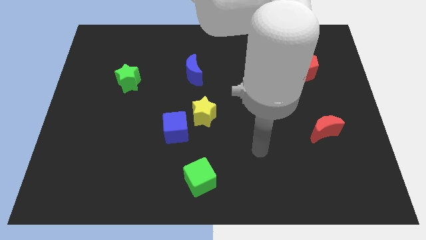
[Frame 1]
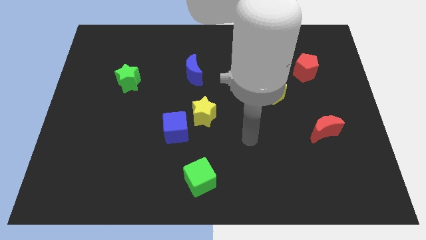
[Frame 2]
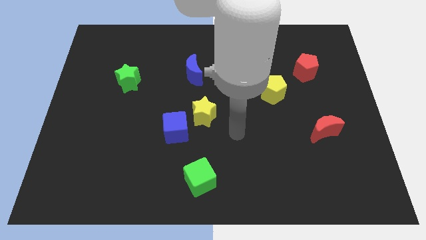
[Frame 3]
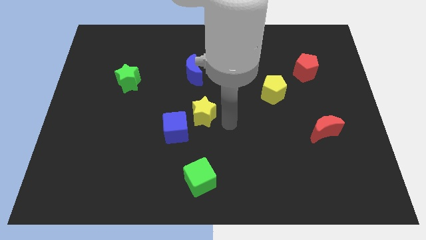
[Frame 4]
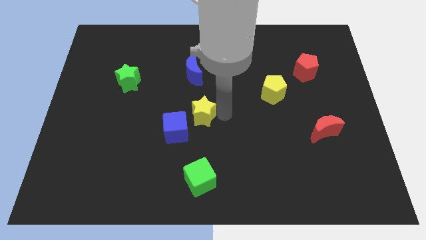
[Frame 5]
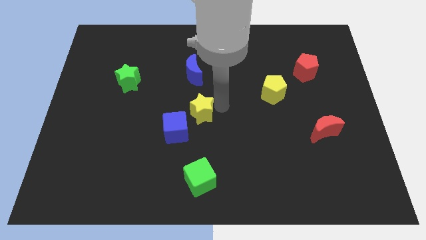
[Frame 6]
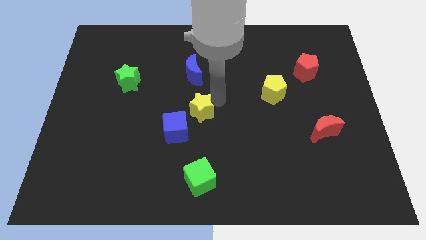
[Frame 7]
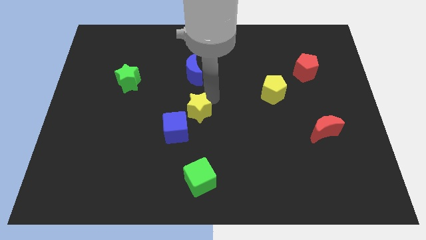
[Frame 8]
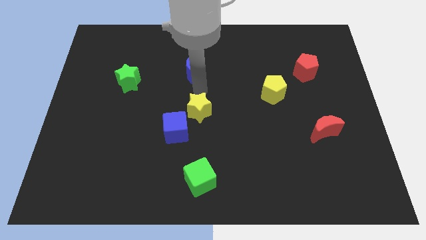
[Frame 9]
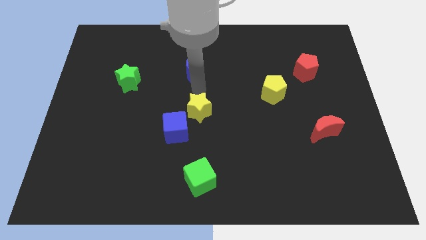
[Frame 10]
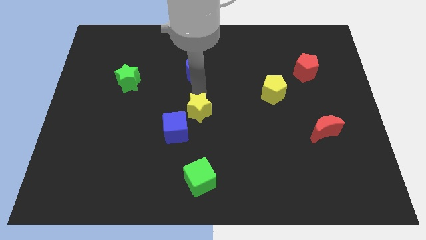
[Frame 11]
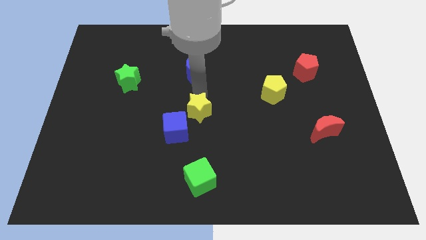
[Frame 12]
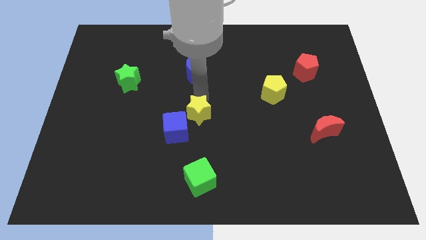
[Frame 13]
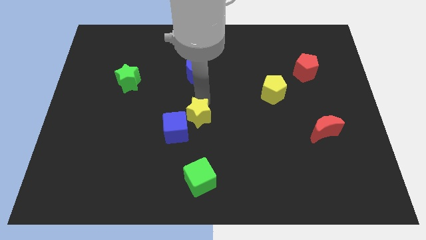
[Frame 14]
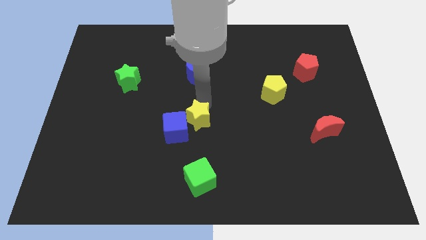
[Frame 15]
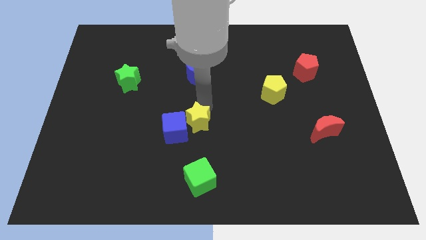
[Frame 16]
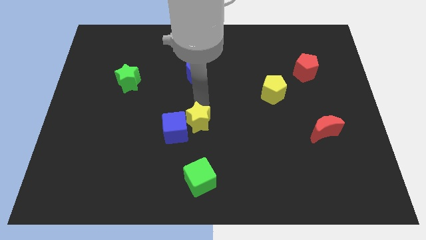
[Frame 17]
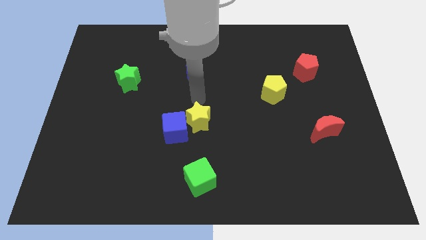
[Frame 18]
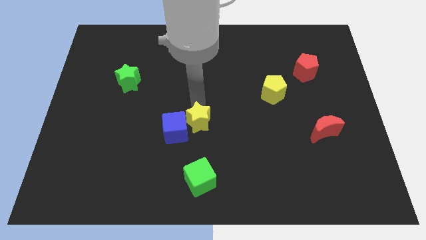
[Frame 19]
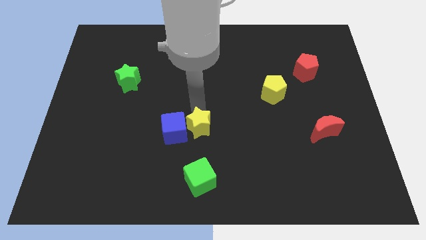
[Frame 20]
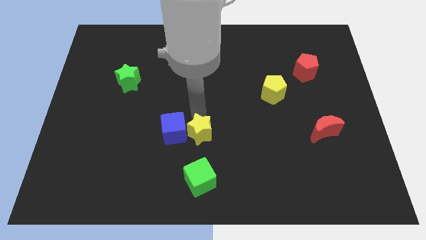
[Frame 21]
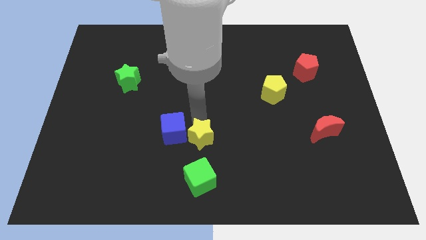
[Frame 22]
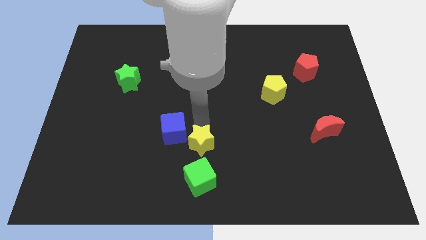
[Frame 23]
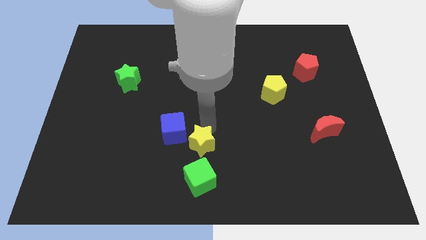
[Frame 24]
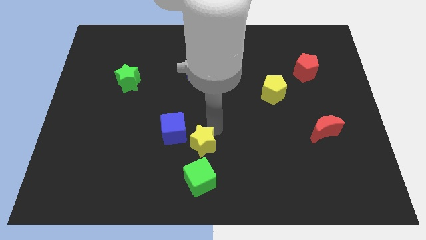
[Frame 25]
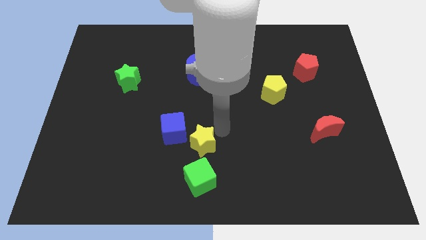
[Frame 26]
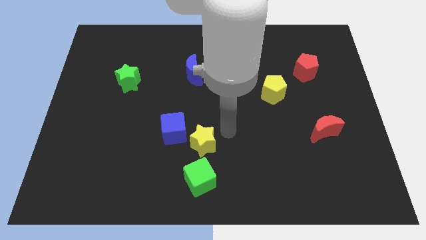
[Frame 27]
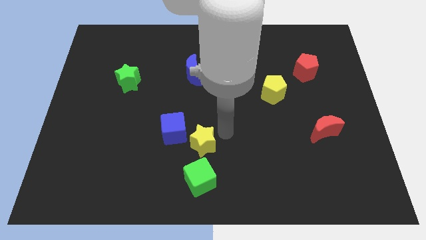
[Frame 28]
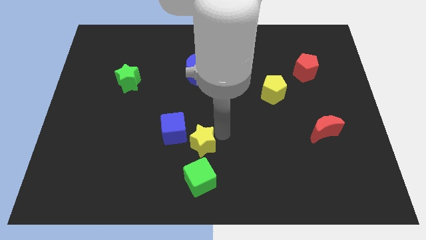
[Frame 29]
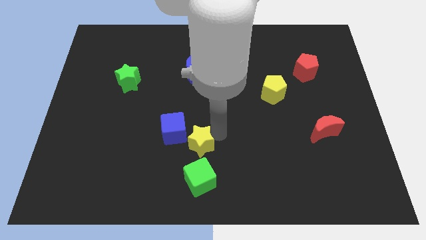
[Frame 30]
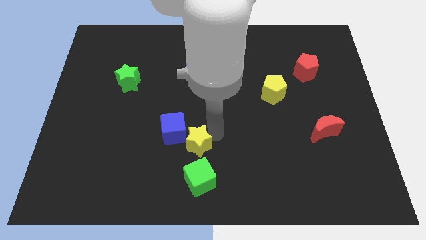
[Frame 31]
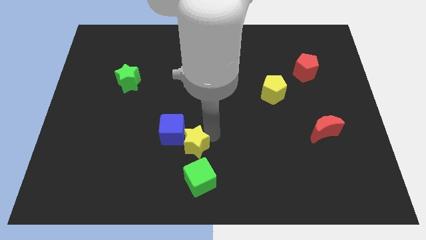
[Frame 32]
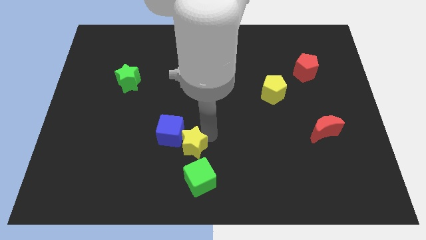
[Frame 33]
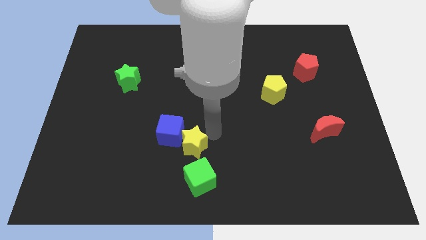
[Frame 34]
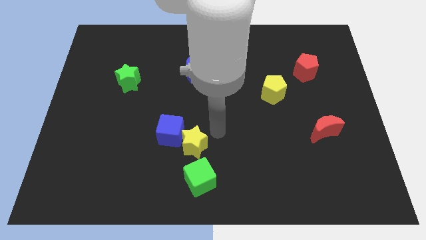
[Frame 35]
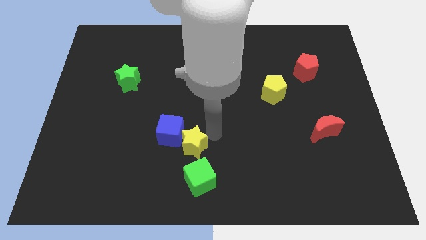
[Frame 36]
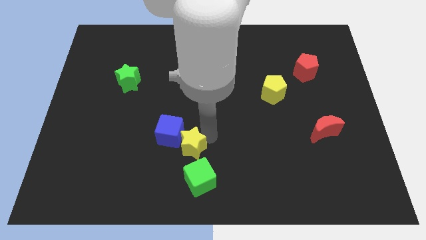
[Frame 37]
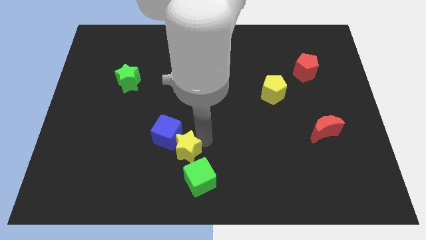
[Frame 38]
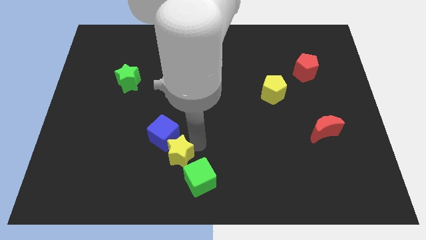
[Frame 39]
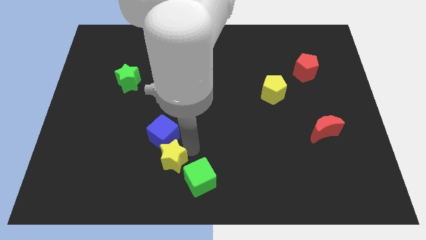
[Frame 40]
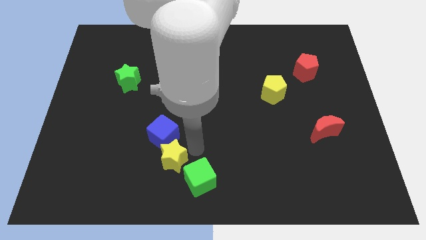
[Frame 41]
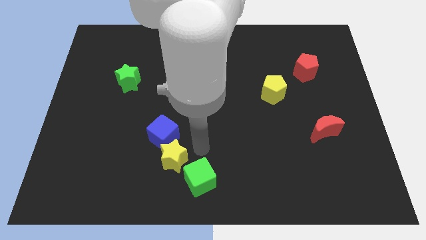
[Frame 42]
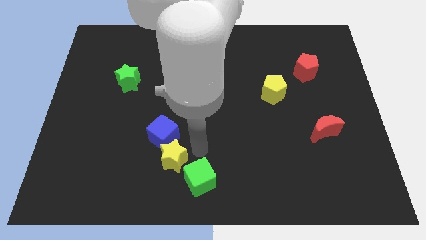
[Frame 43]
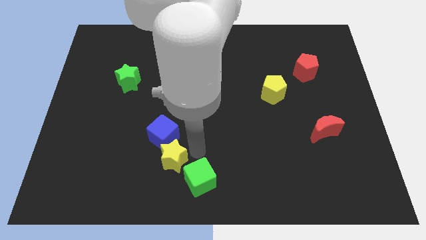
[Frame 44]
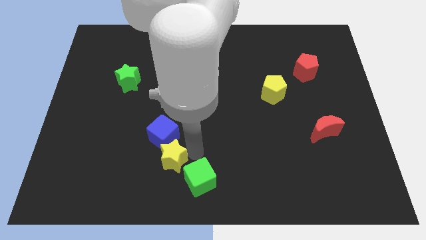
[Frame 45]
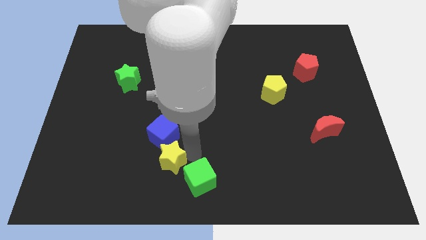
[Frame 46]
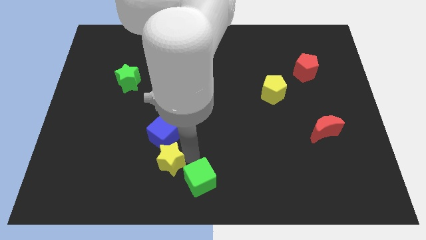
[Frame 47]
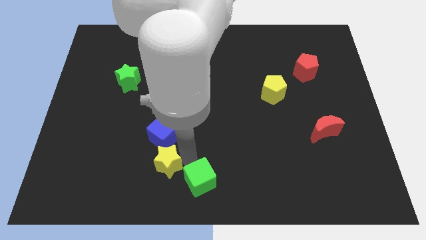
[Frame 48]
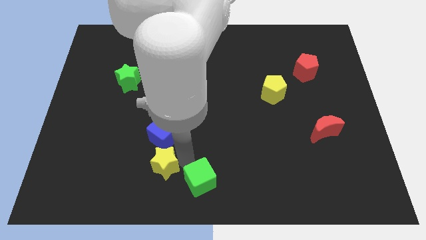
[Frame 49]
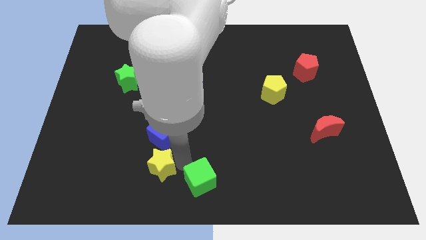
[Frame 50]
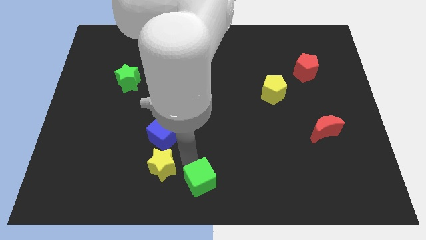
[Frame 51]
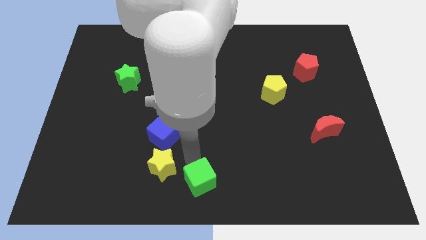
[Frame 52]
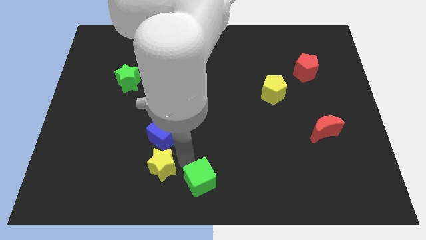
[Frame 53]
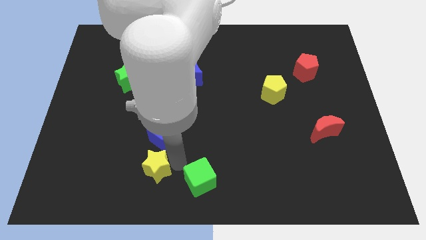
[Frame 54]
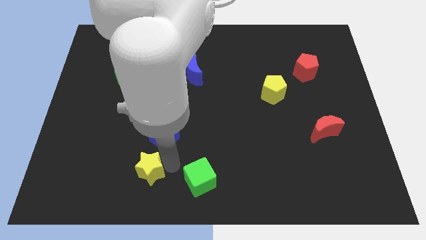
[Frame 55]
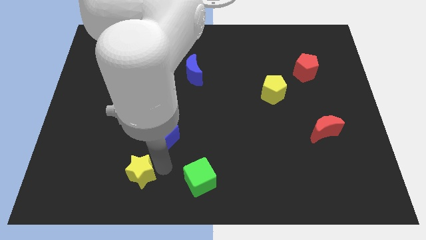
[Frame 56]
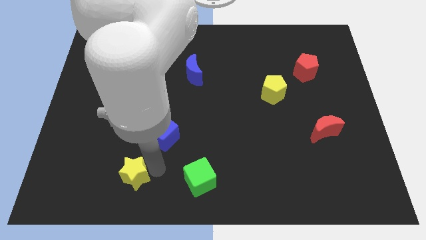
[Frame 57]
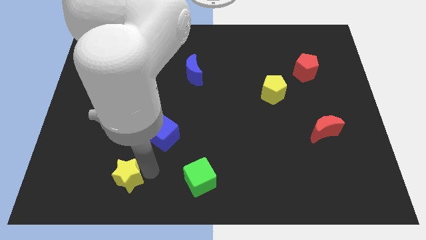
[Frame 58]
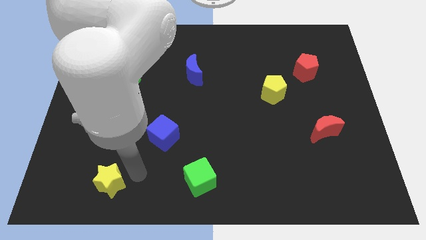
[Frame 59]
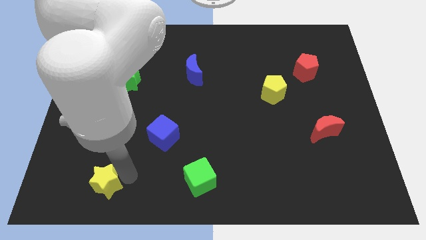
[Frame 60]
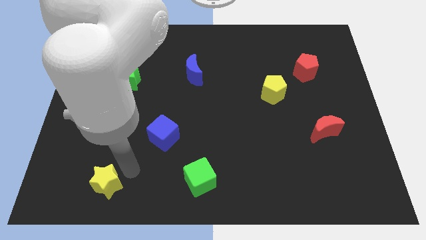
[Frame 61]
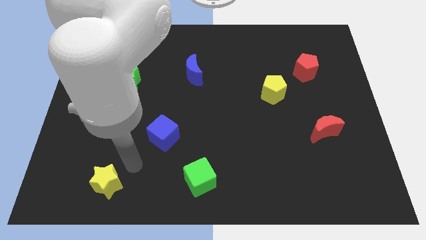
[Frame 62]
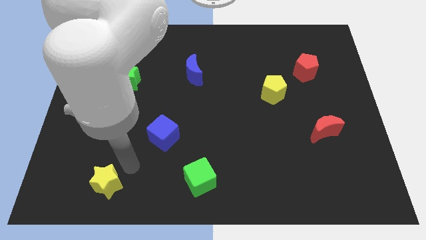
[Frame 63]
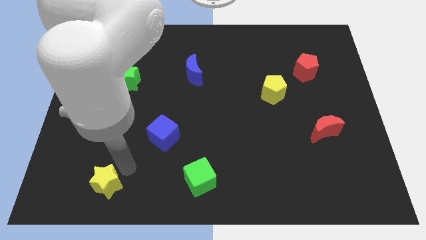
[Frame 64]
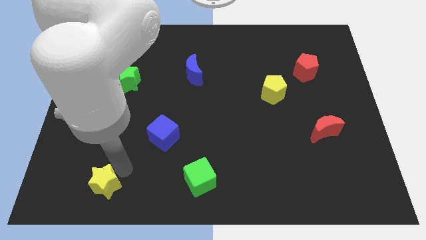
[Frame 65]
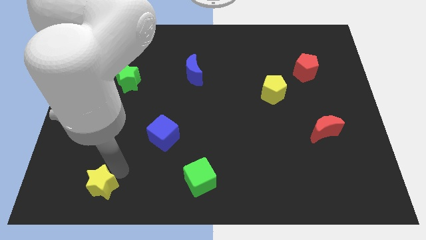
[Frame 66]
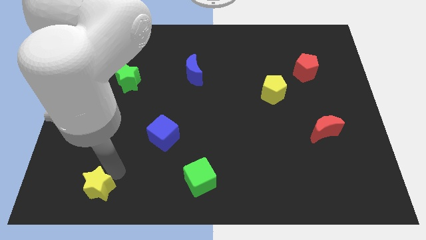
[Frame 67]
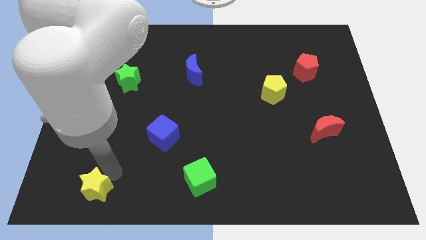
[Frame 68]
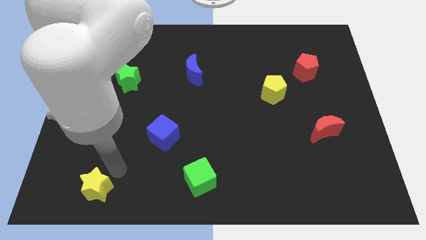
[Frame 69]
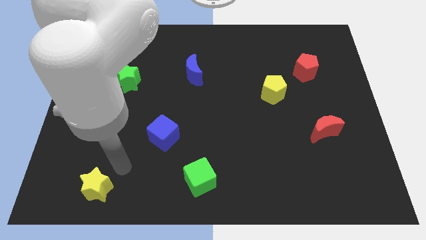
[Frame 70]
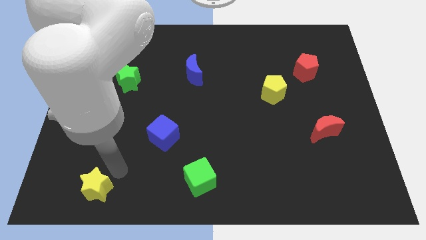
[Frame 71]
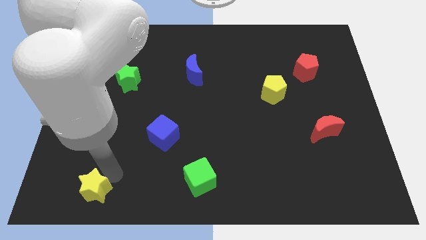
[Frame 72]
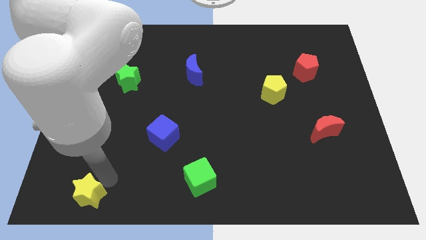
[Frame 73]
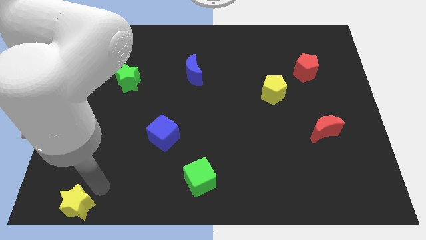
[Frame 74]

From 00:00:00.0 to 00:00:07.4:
move the yellow star to the bottom left corner

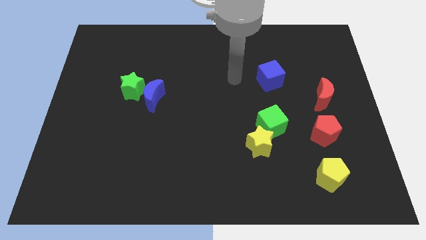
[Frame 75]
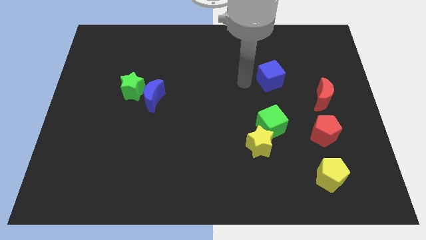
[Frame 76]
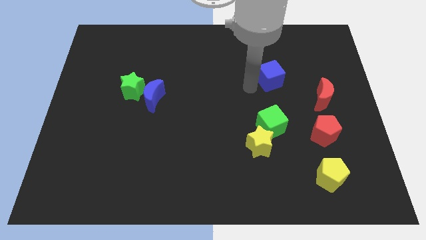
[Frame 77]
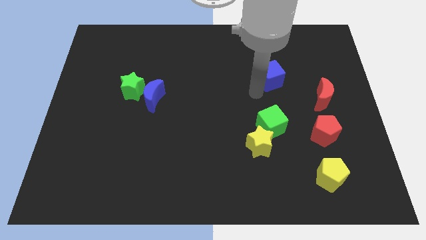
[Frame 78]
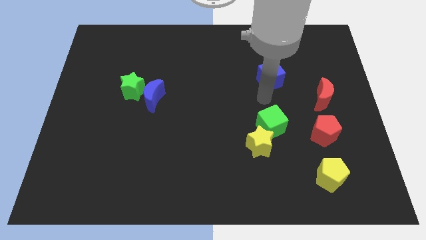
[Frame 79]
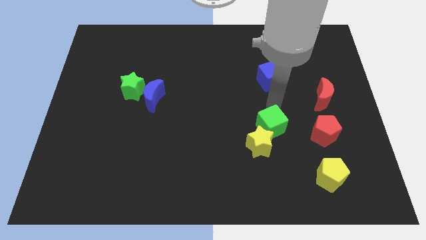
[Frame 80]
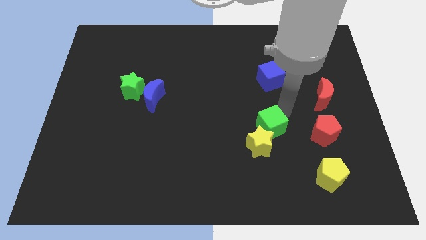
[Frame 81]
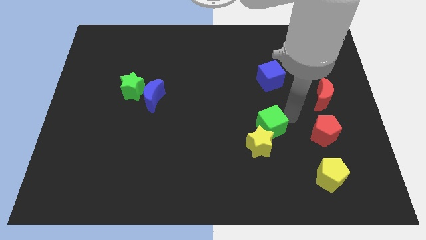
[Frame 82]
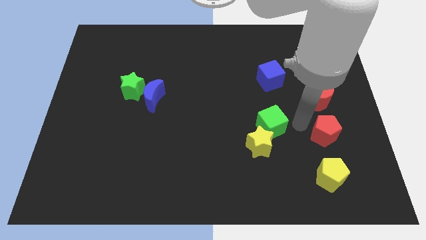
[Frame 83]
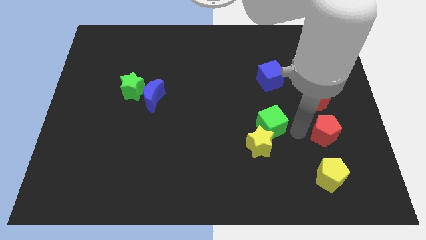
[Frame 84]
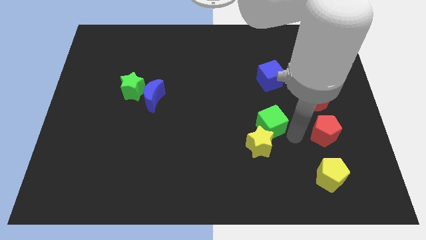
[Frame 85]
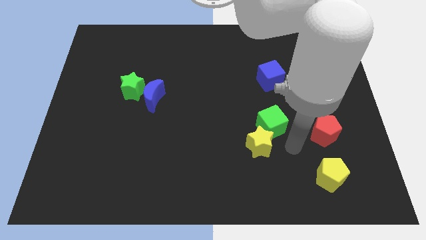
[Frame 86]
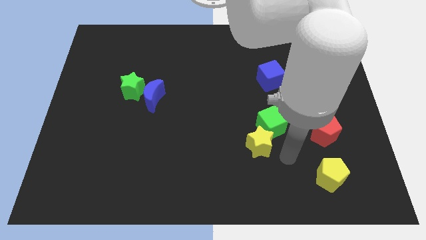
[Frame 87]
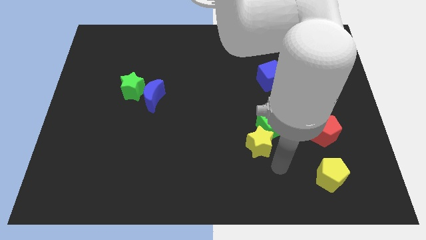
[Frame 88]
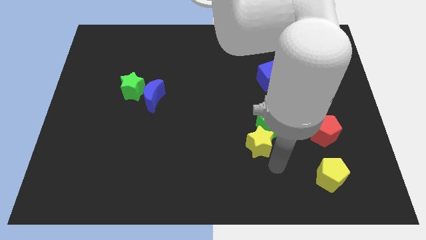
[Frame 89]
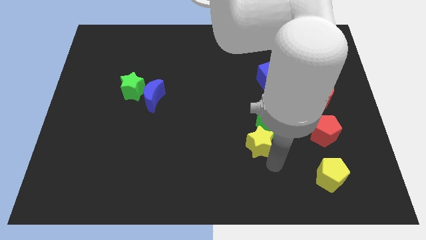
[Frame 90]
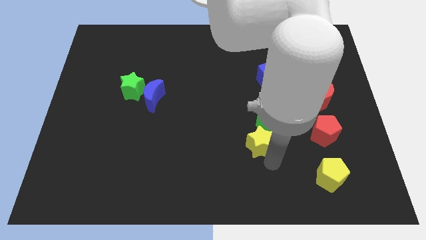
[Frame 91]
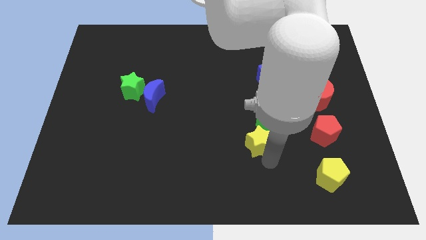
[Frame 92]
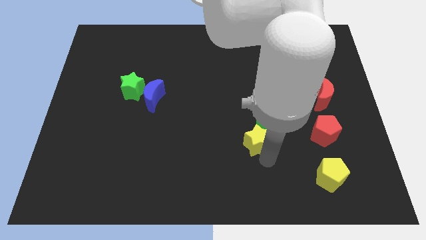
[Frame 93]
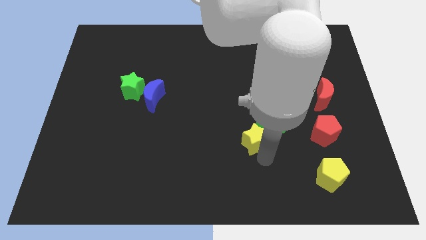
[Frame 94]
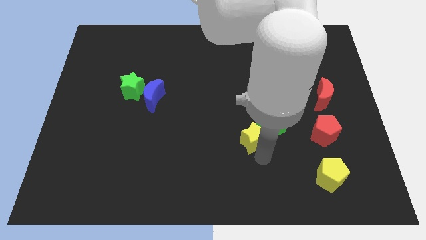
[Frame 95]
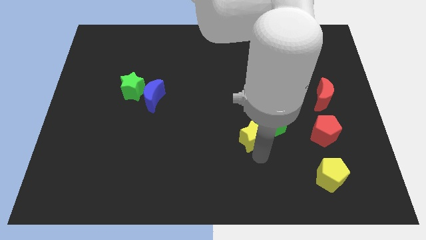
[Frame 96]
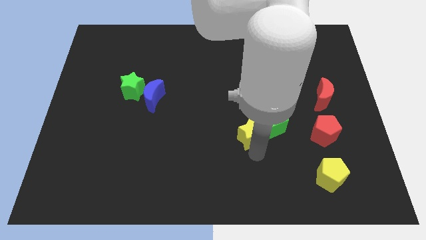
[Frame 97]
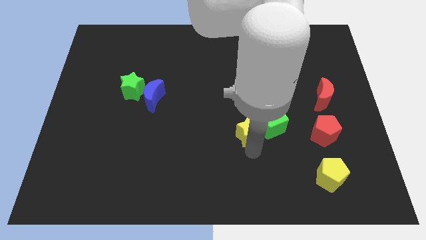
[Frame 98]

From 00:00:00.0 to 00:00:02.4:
push the yellow star to the center of the board
